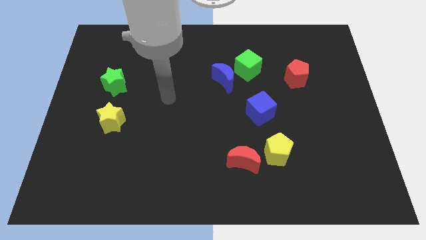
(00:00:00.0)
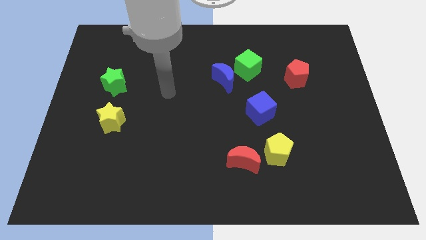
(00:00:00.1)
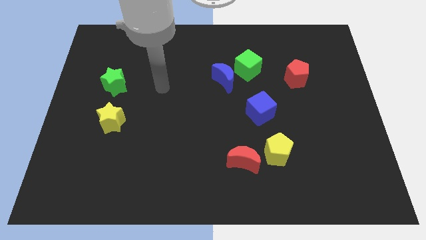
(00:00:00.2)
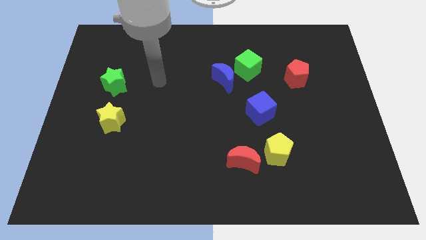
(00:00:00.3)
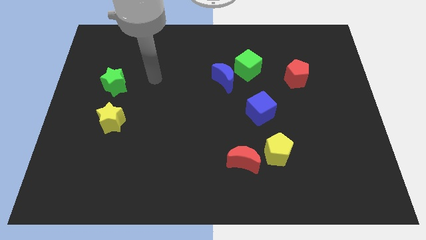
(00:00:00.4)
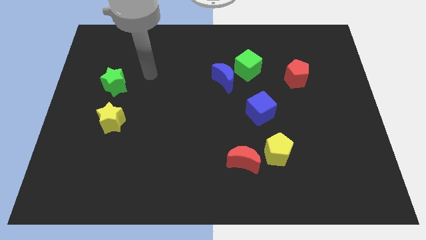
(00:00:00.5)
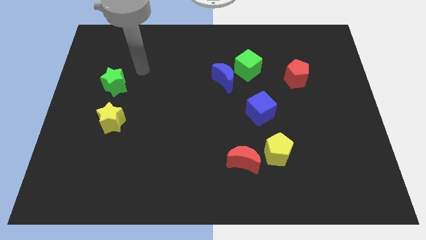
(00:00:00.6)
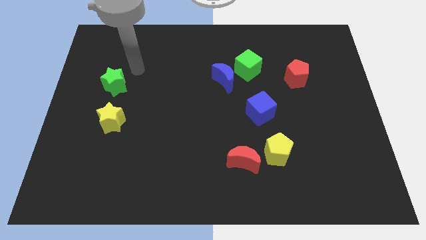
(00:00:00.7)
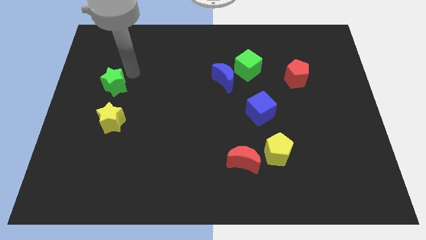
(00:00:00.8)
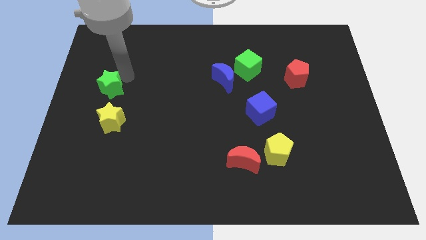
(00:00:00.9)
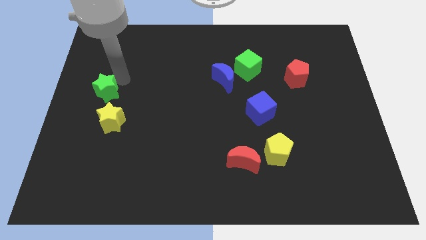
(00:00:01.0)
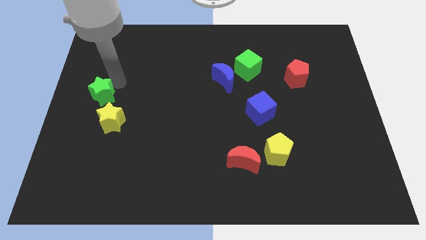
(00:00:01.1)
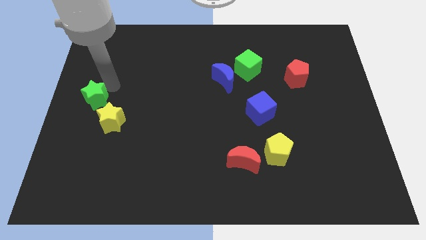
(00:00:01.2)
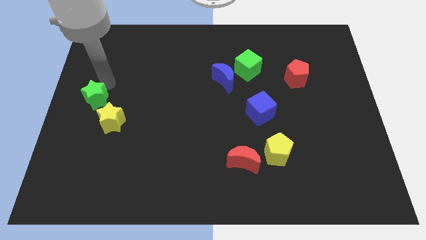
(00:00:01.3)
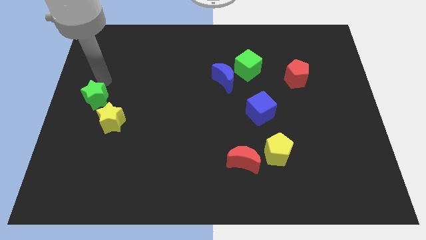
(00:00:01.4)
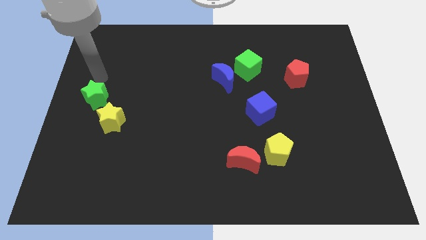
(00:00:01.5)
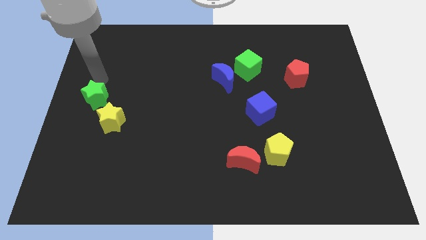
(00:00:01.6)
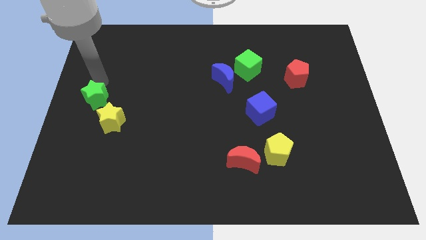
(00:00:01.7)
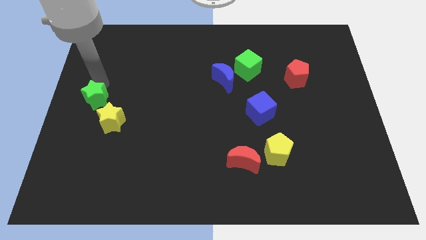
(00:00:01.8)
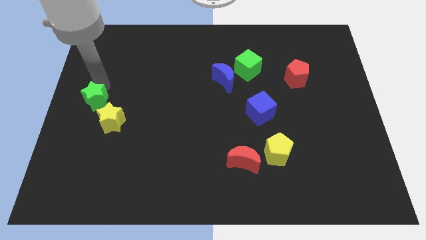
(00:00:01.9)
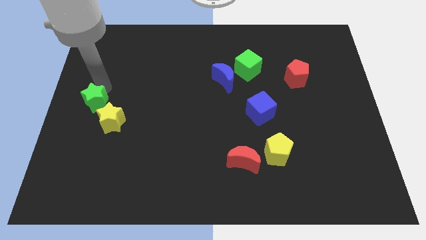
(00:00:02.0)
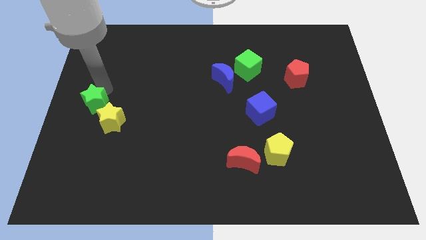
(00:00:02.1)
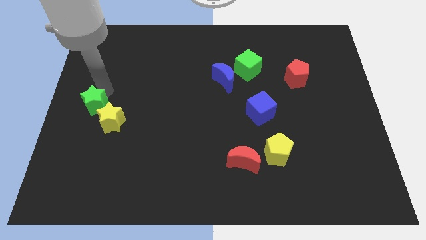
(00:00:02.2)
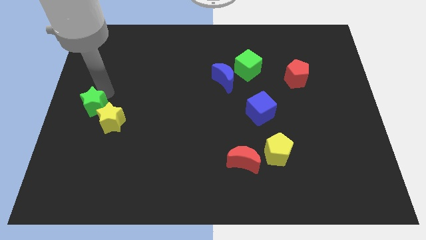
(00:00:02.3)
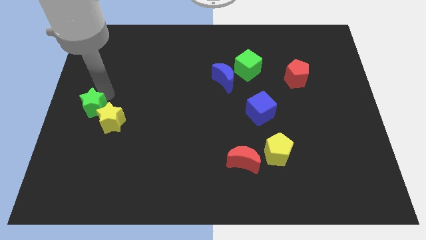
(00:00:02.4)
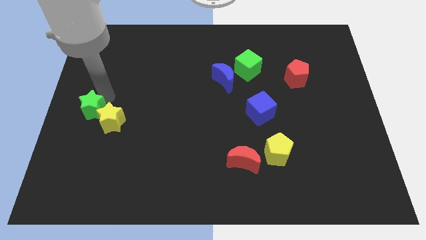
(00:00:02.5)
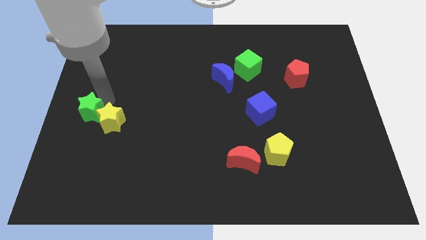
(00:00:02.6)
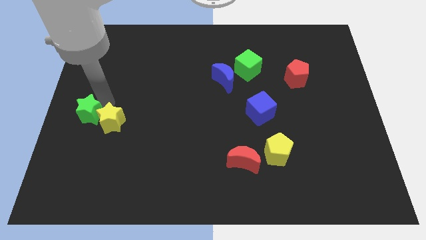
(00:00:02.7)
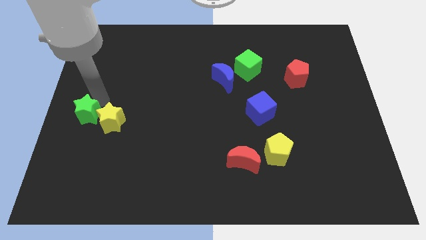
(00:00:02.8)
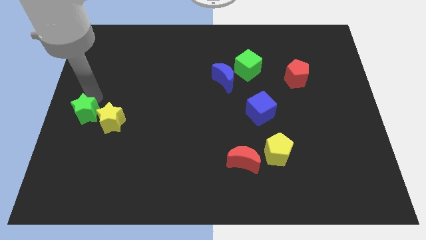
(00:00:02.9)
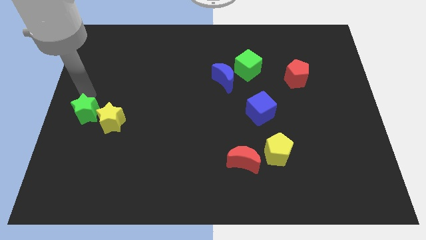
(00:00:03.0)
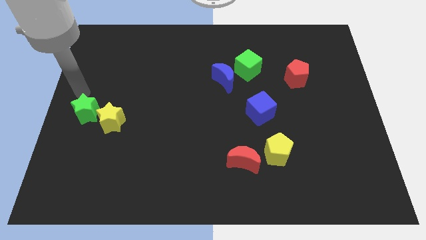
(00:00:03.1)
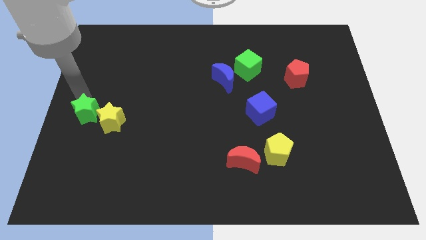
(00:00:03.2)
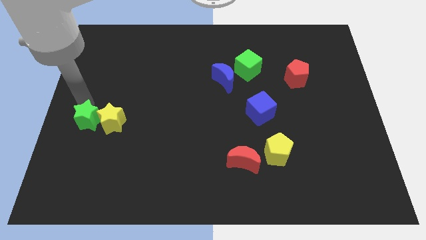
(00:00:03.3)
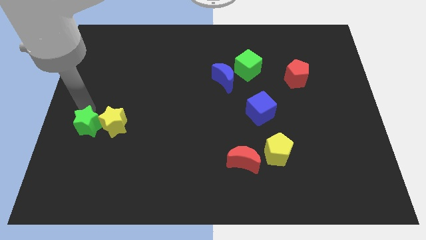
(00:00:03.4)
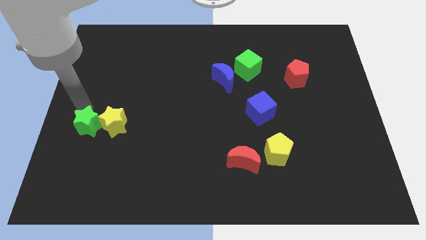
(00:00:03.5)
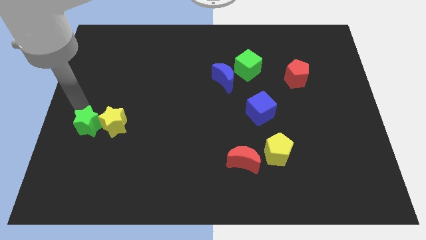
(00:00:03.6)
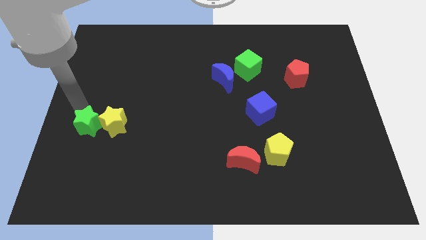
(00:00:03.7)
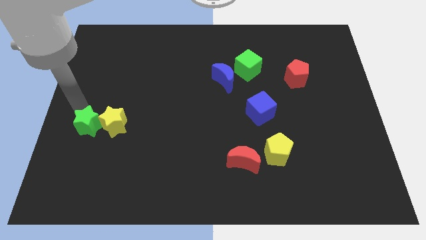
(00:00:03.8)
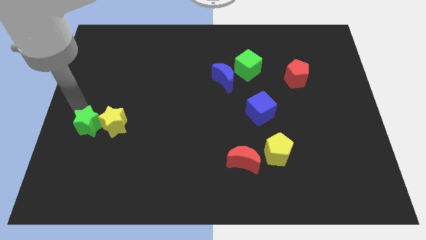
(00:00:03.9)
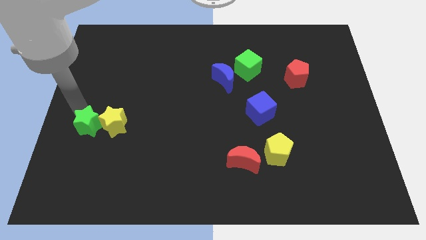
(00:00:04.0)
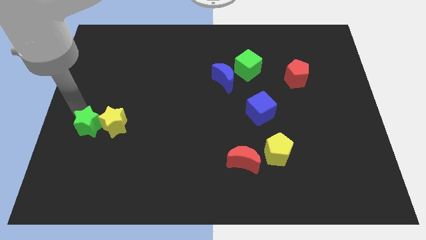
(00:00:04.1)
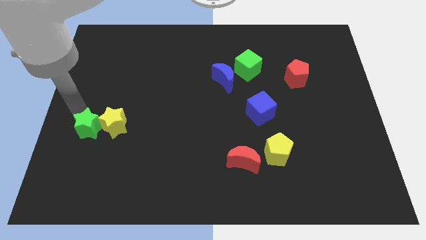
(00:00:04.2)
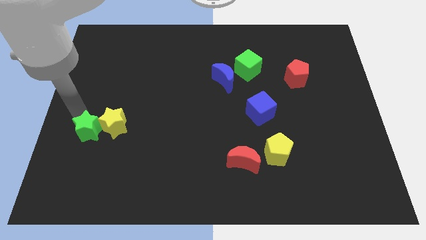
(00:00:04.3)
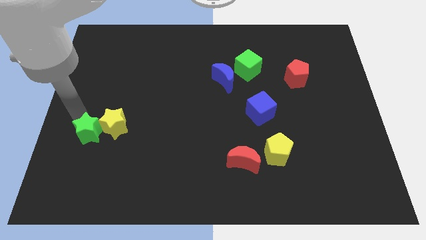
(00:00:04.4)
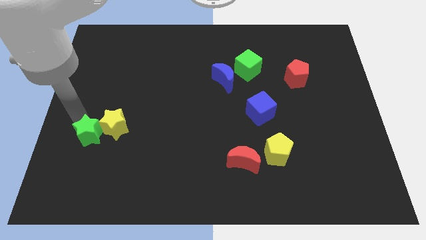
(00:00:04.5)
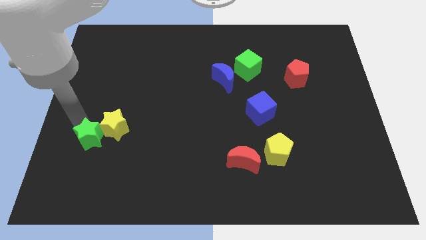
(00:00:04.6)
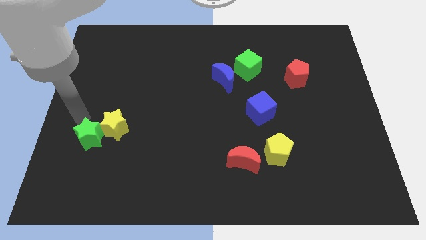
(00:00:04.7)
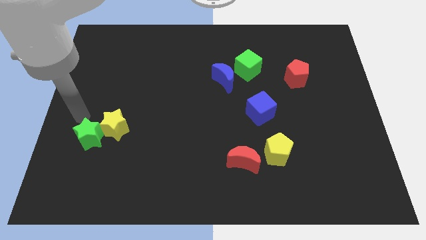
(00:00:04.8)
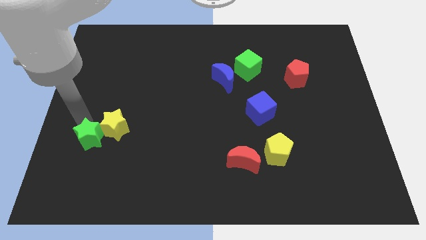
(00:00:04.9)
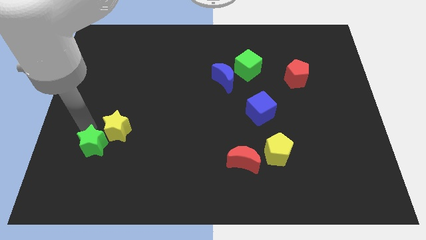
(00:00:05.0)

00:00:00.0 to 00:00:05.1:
move the green star to the bottom of the yellow star

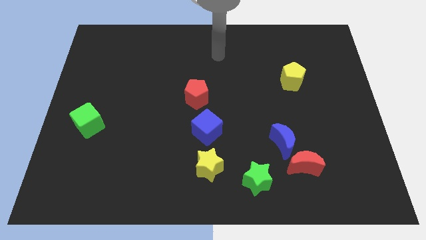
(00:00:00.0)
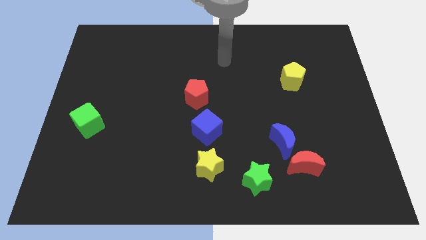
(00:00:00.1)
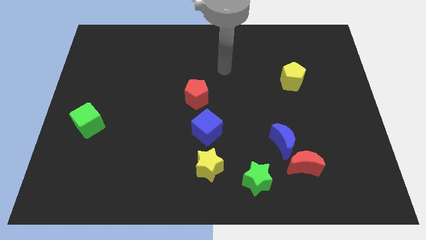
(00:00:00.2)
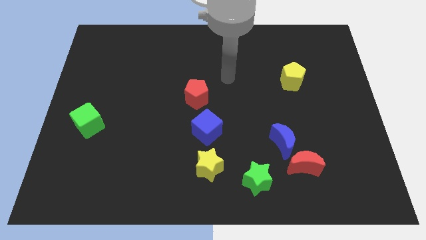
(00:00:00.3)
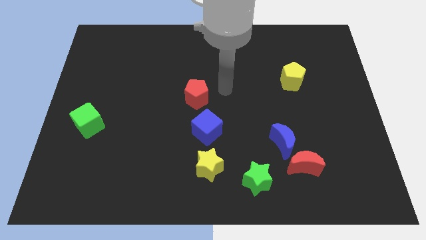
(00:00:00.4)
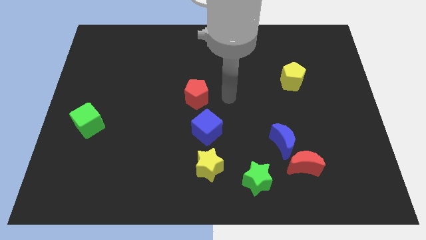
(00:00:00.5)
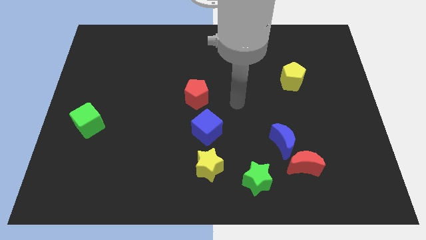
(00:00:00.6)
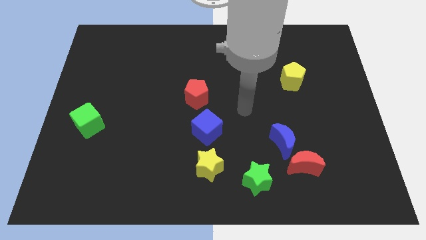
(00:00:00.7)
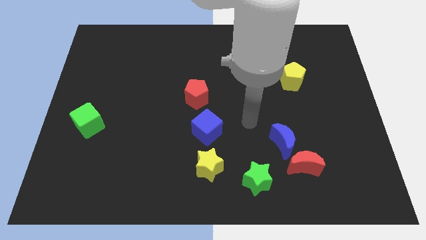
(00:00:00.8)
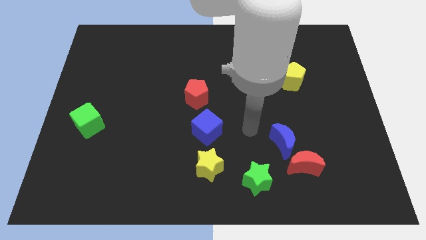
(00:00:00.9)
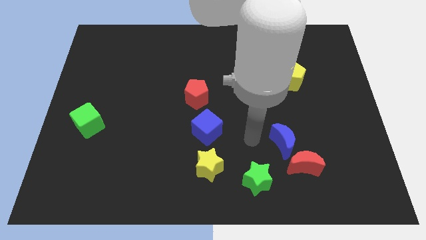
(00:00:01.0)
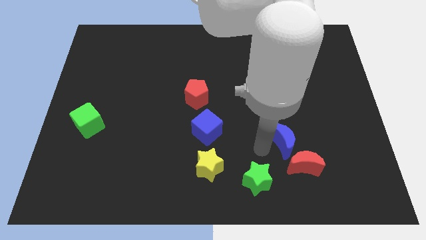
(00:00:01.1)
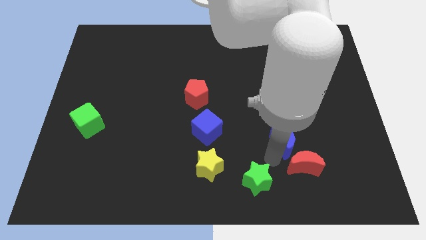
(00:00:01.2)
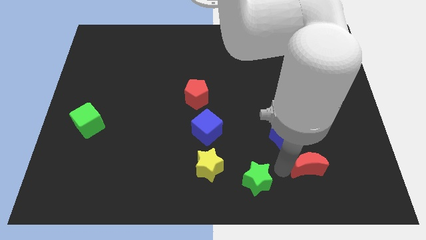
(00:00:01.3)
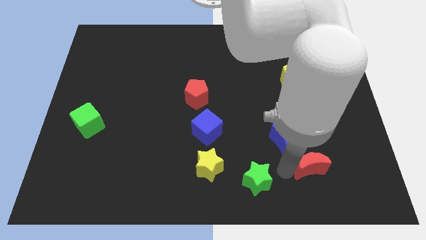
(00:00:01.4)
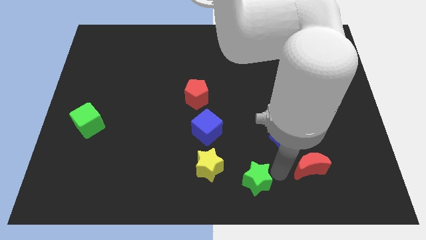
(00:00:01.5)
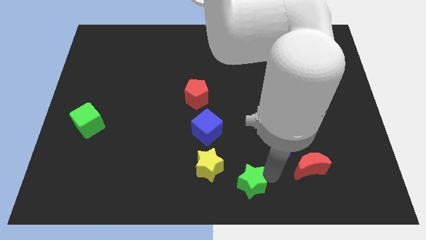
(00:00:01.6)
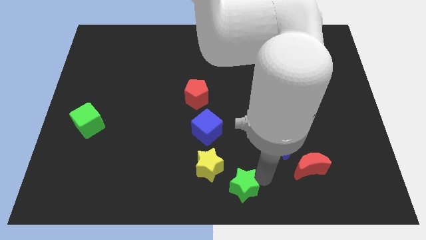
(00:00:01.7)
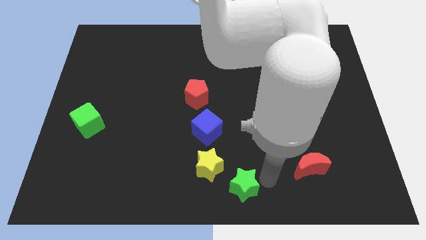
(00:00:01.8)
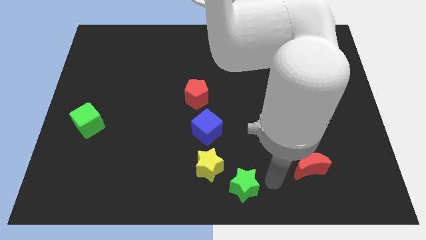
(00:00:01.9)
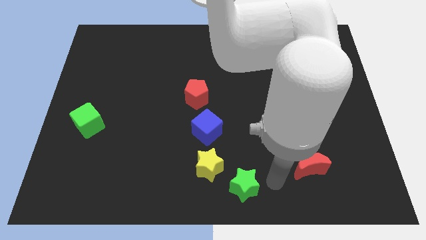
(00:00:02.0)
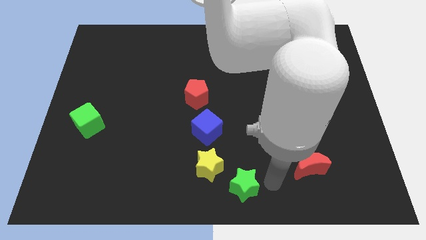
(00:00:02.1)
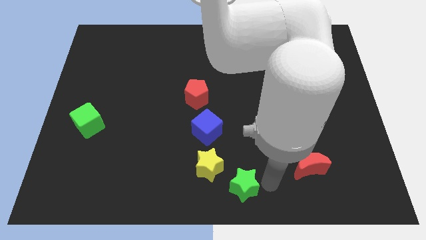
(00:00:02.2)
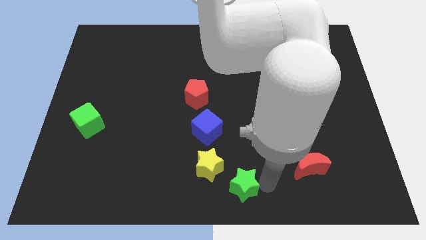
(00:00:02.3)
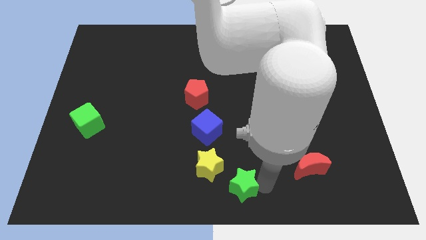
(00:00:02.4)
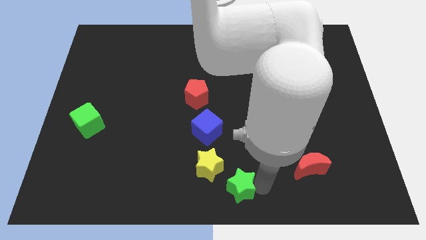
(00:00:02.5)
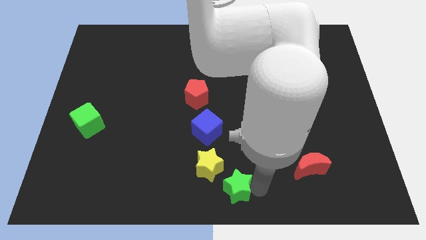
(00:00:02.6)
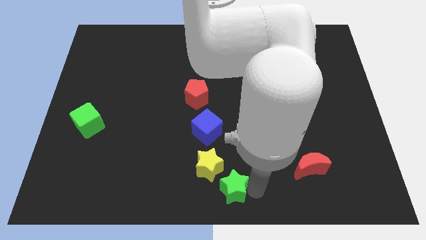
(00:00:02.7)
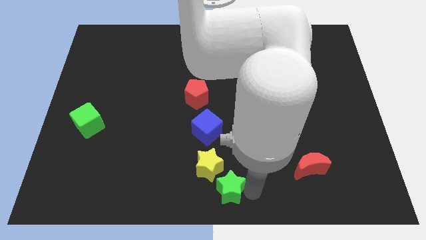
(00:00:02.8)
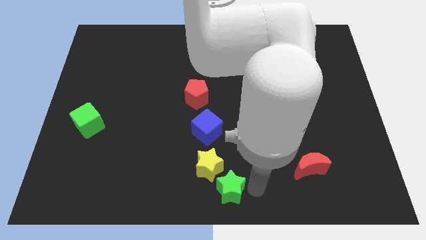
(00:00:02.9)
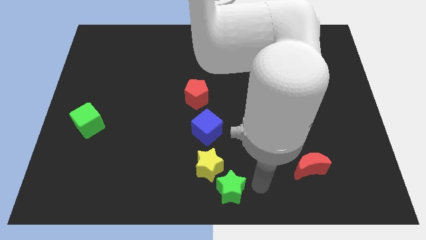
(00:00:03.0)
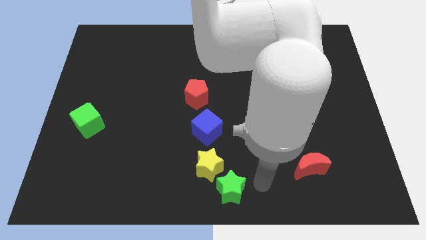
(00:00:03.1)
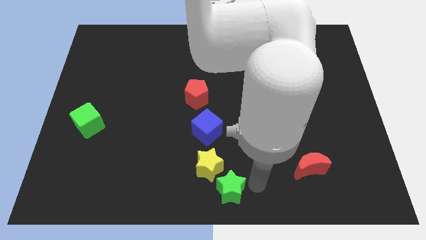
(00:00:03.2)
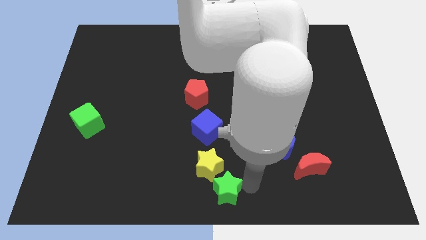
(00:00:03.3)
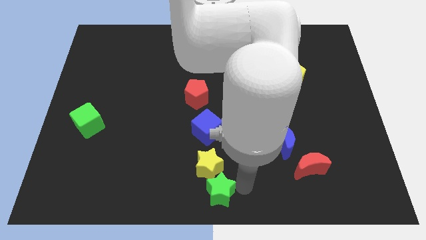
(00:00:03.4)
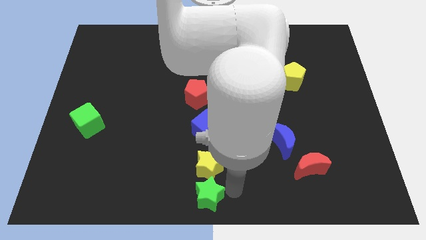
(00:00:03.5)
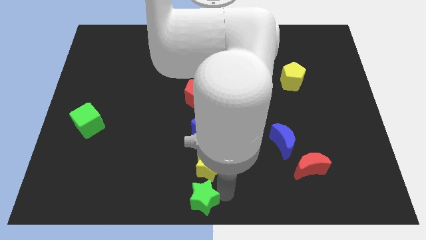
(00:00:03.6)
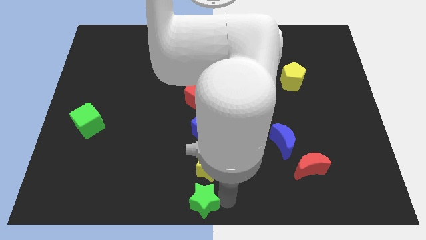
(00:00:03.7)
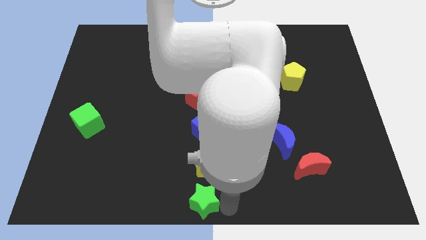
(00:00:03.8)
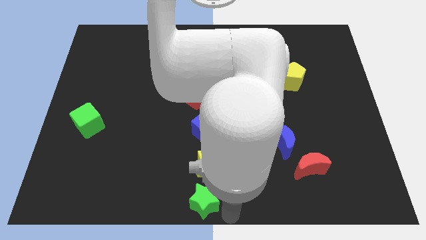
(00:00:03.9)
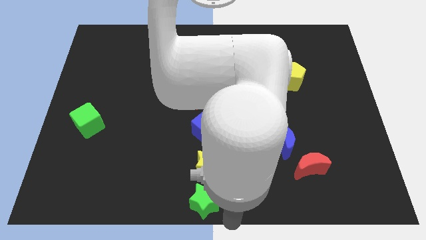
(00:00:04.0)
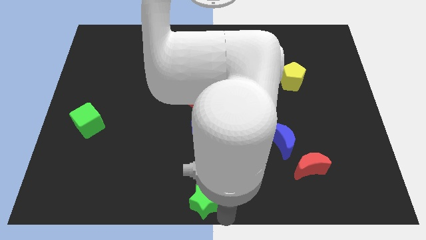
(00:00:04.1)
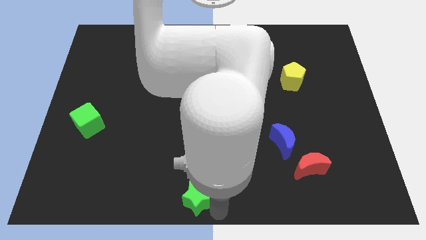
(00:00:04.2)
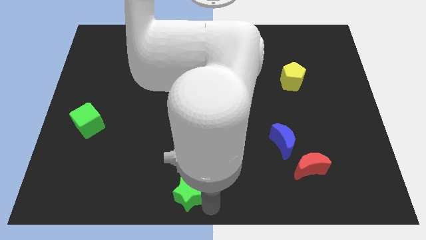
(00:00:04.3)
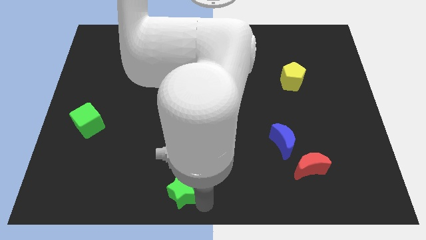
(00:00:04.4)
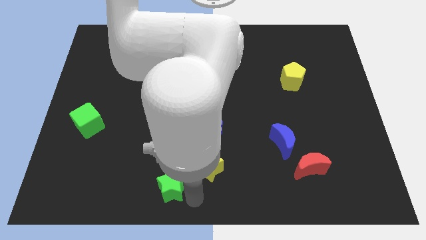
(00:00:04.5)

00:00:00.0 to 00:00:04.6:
push the green star to the left side of the yellow star
